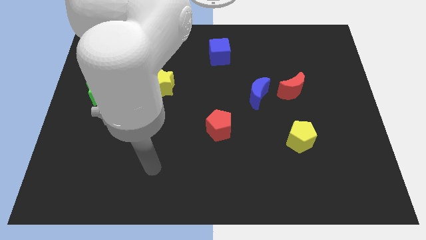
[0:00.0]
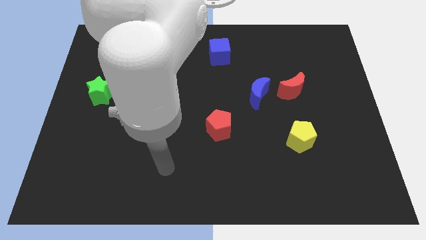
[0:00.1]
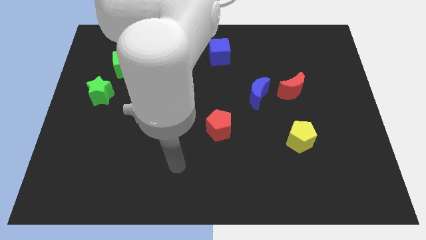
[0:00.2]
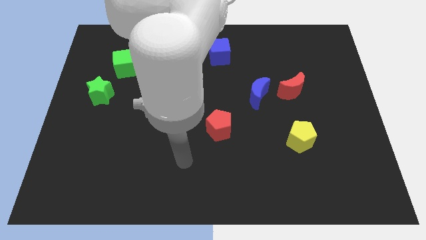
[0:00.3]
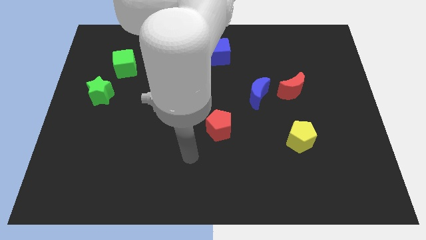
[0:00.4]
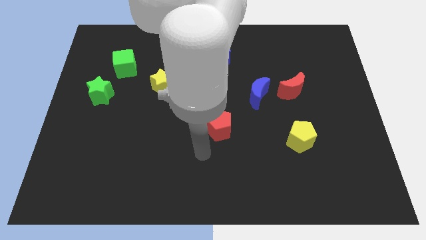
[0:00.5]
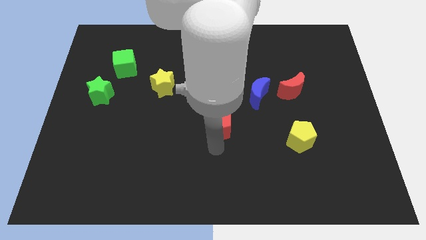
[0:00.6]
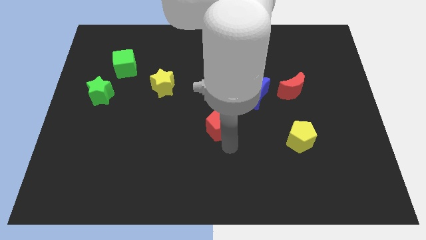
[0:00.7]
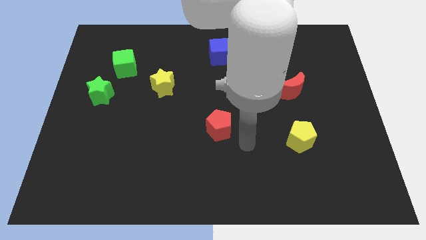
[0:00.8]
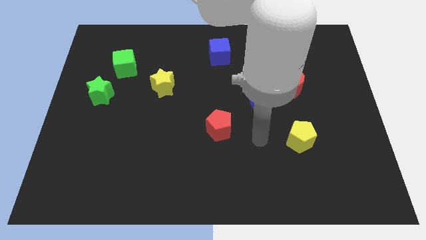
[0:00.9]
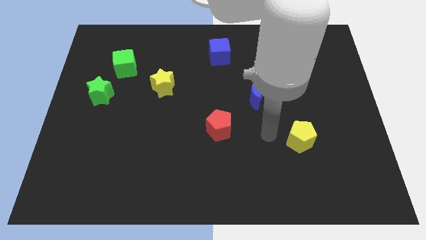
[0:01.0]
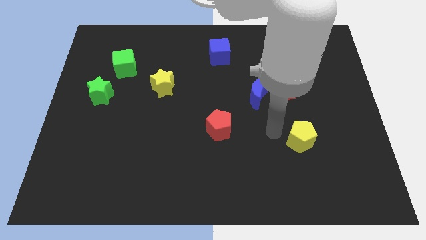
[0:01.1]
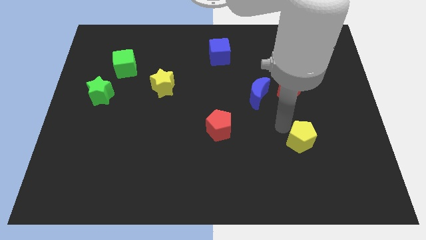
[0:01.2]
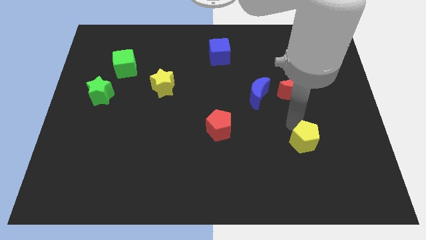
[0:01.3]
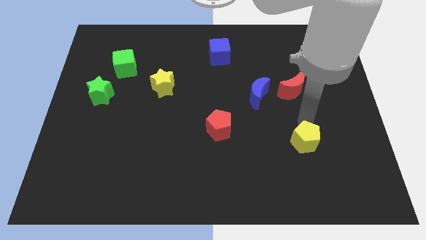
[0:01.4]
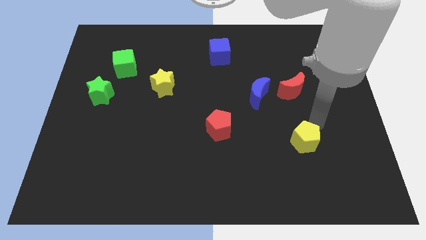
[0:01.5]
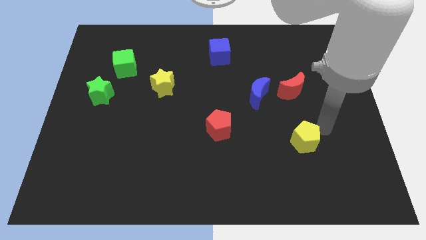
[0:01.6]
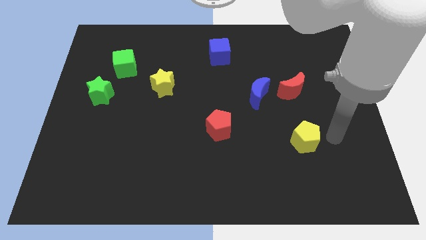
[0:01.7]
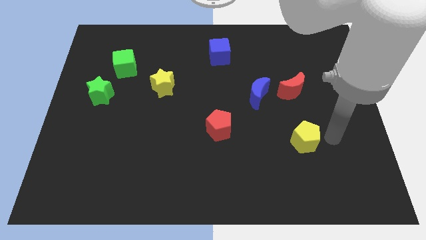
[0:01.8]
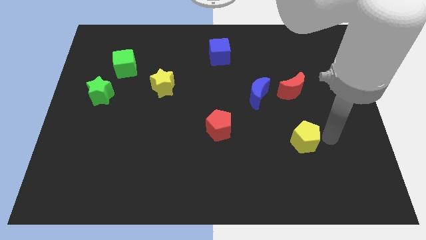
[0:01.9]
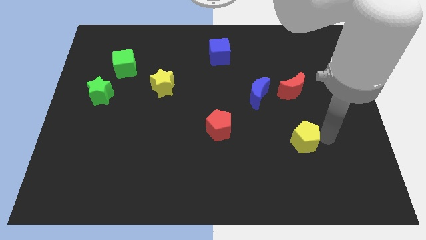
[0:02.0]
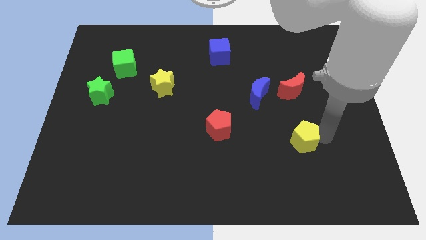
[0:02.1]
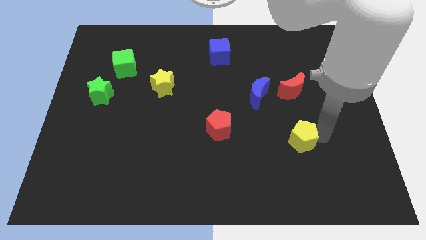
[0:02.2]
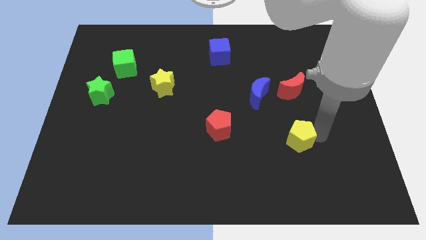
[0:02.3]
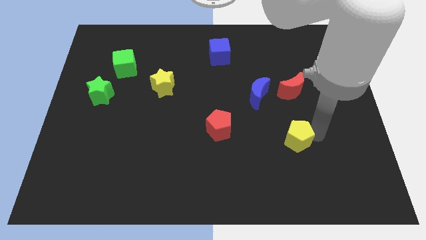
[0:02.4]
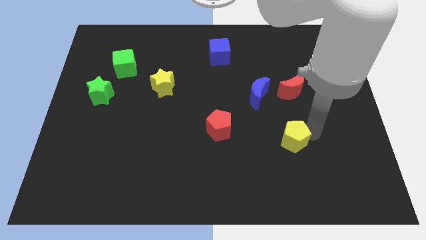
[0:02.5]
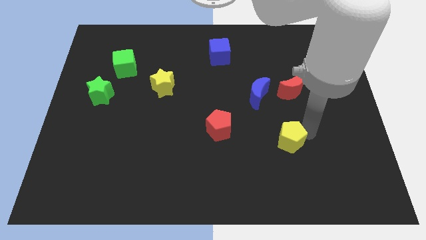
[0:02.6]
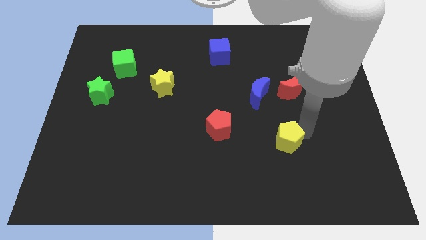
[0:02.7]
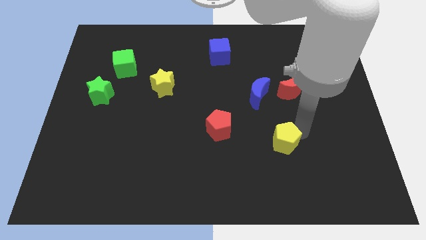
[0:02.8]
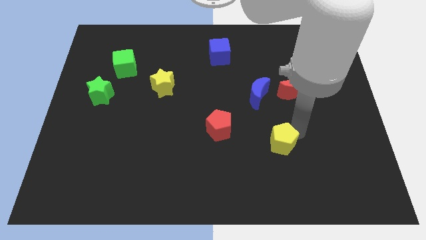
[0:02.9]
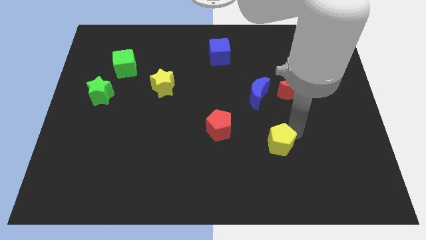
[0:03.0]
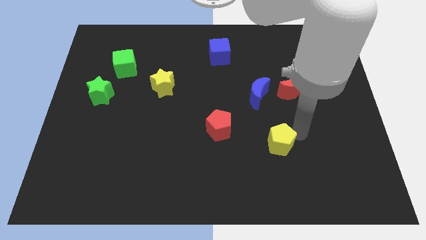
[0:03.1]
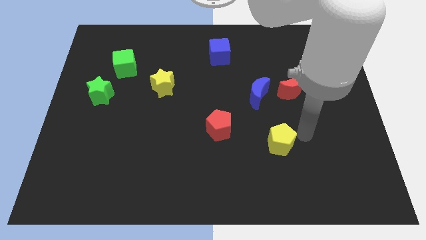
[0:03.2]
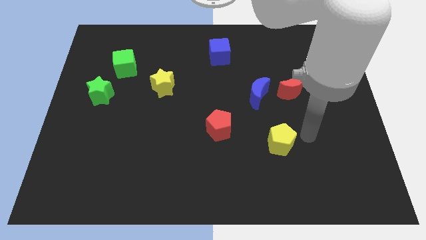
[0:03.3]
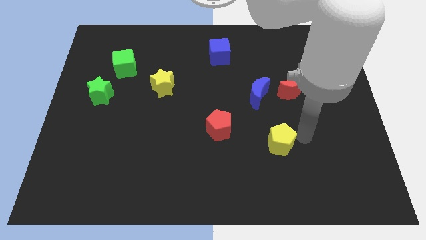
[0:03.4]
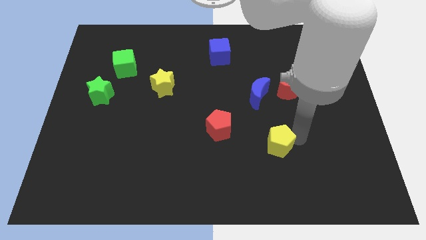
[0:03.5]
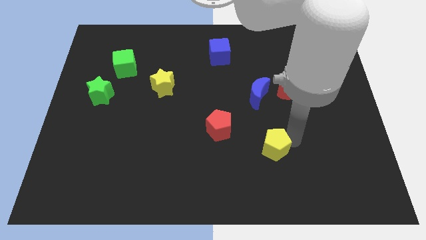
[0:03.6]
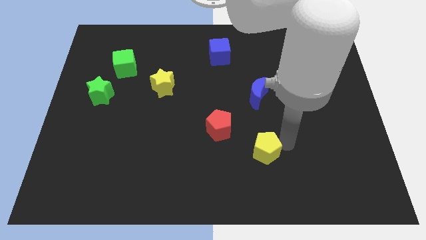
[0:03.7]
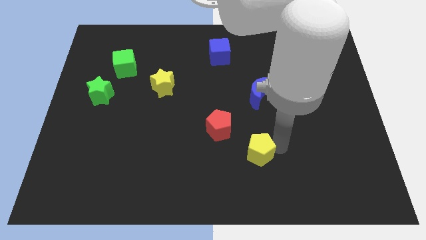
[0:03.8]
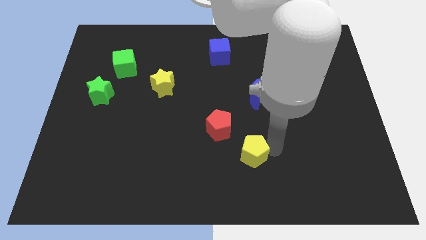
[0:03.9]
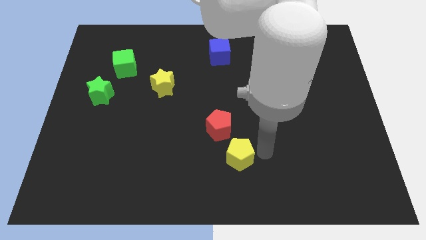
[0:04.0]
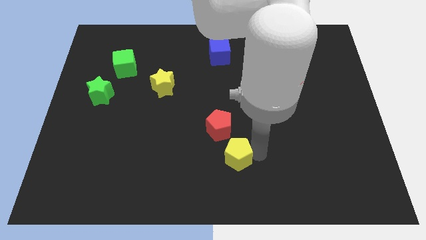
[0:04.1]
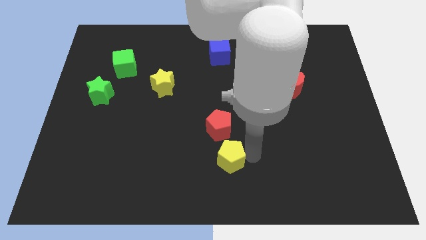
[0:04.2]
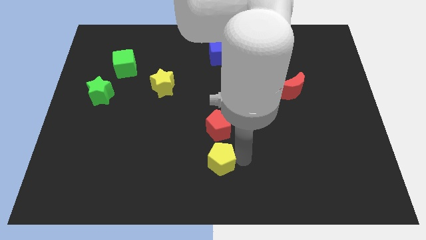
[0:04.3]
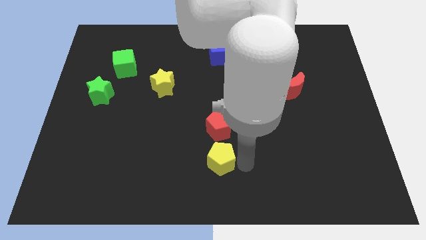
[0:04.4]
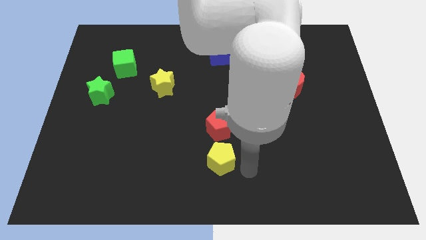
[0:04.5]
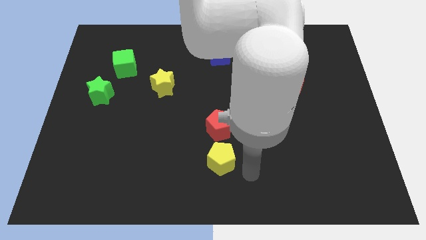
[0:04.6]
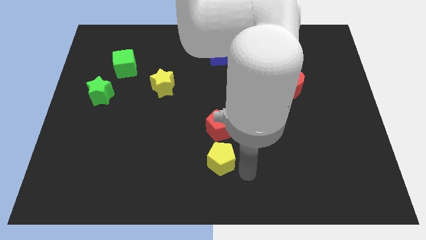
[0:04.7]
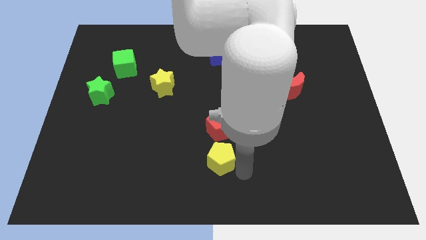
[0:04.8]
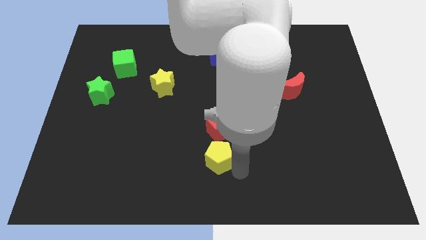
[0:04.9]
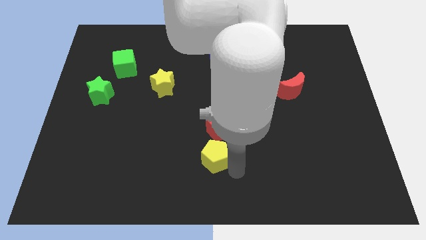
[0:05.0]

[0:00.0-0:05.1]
put the yellow pentagon to the bottom left side of the red pentagon

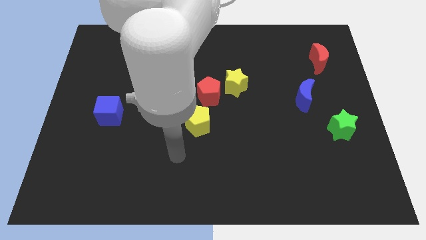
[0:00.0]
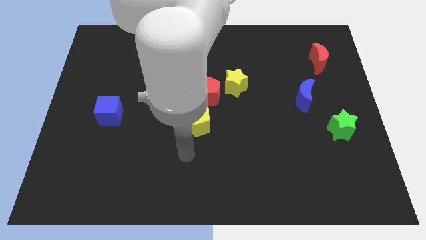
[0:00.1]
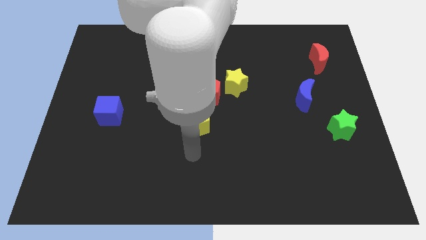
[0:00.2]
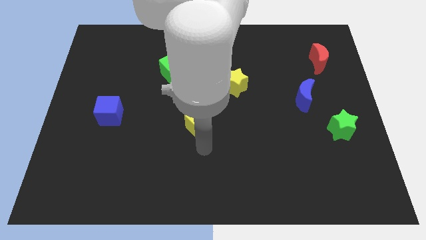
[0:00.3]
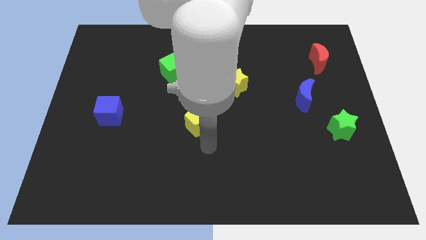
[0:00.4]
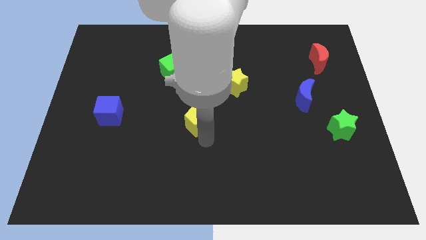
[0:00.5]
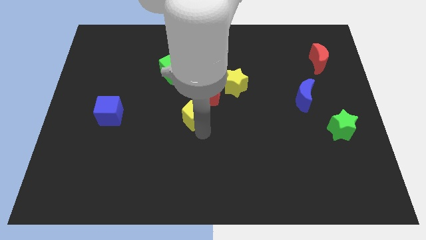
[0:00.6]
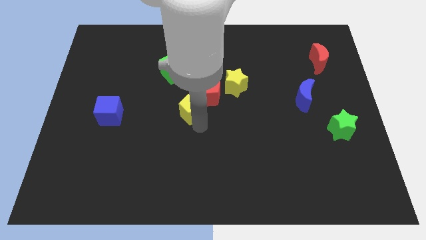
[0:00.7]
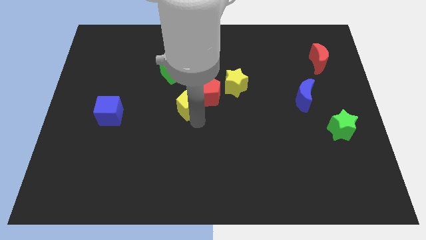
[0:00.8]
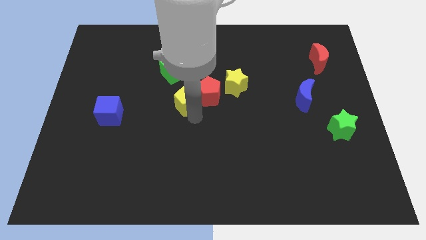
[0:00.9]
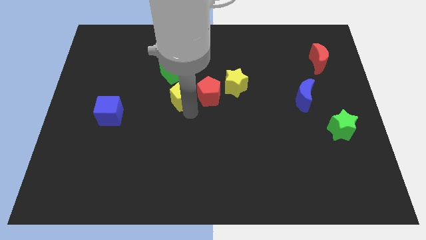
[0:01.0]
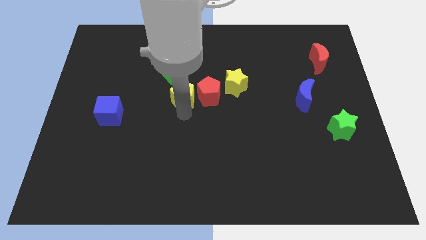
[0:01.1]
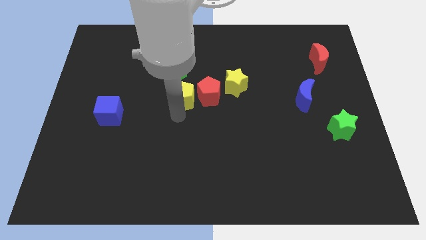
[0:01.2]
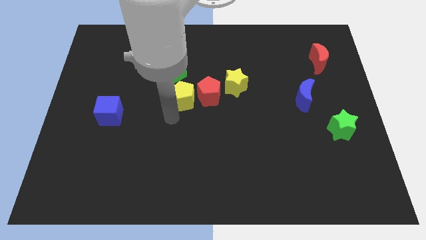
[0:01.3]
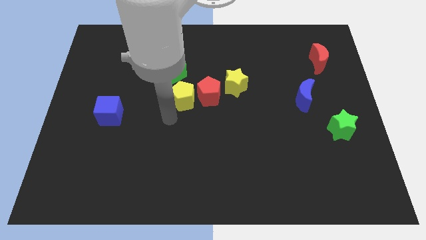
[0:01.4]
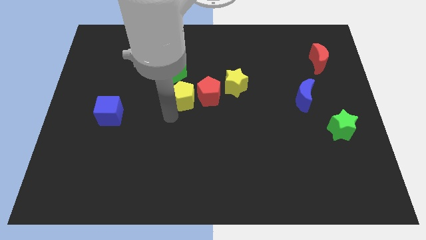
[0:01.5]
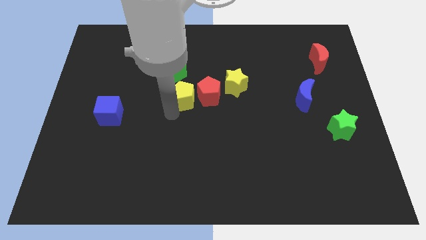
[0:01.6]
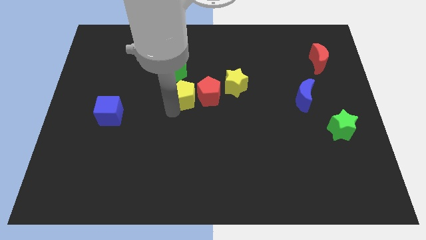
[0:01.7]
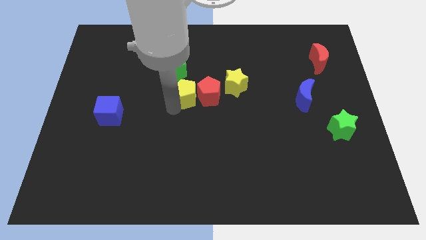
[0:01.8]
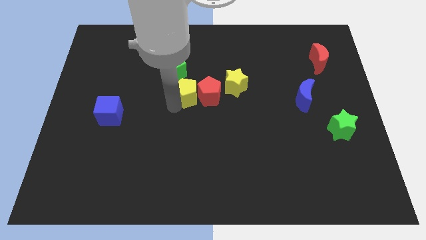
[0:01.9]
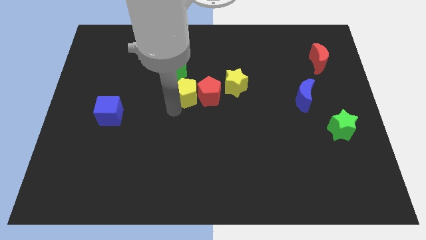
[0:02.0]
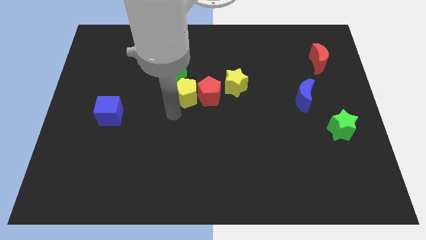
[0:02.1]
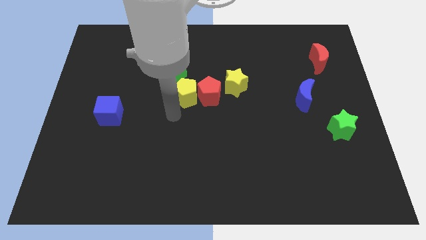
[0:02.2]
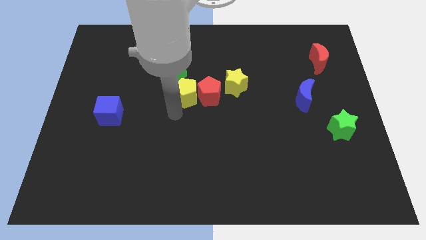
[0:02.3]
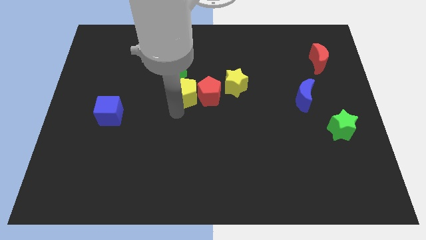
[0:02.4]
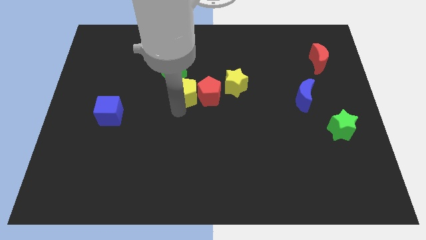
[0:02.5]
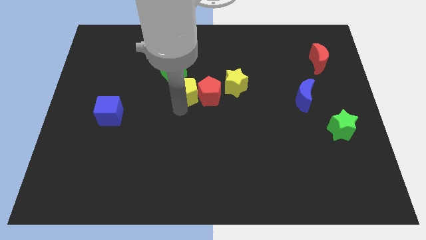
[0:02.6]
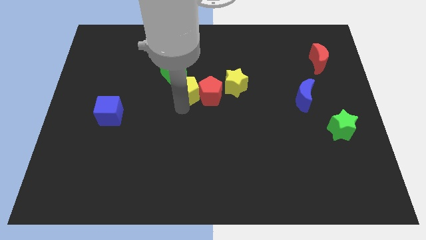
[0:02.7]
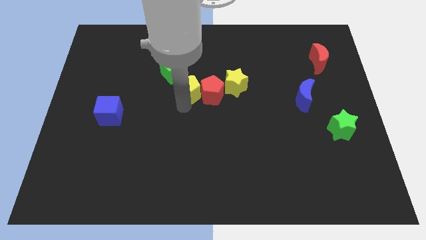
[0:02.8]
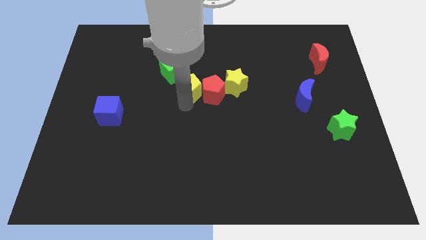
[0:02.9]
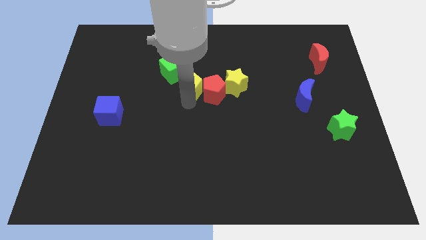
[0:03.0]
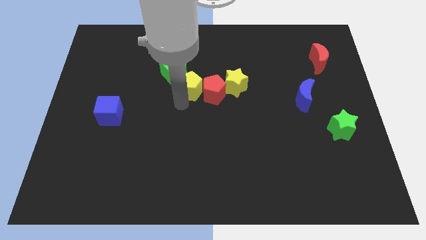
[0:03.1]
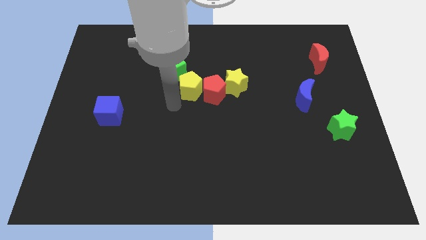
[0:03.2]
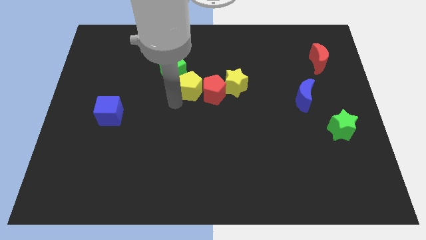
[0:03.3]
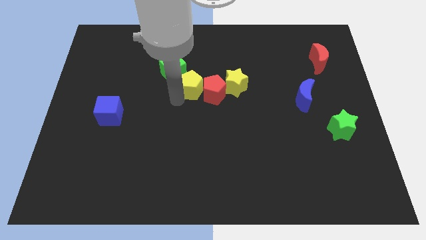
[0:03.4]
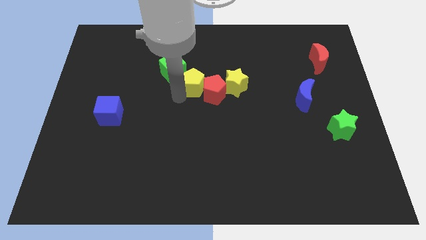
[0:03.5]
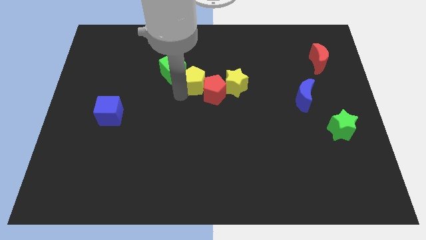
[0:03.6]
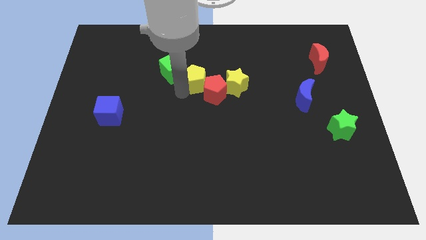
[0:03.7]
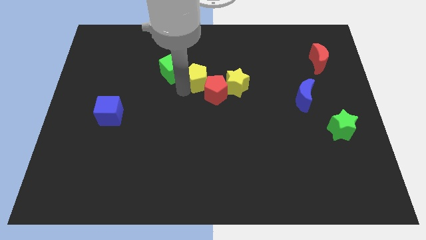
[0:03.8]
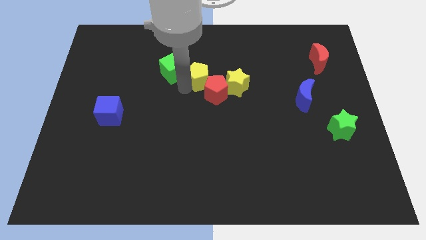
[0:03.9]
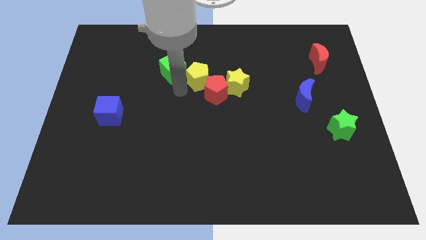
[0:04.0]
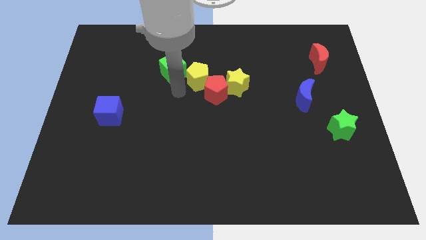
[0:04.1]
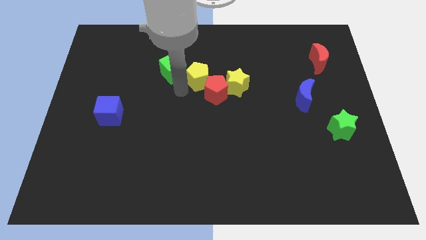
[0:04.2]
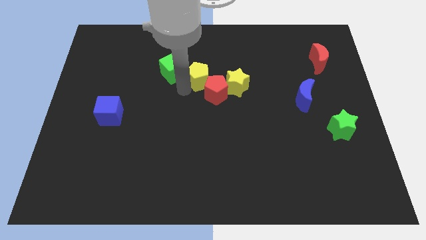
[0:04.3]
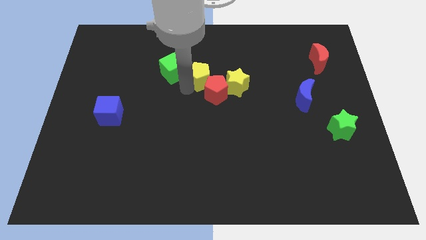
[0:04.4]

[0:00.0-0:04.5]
slide the yellow pentagon diagonally up and to the left of the yellow star
